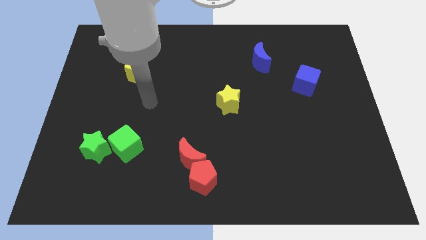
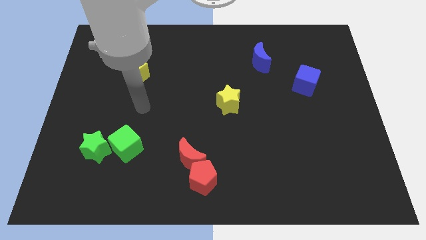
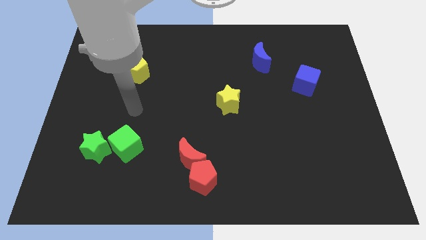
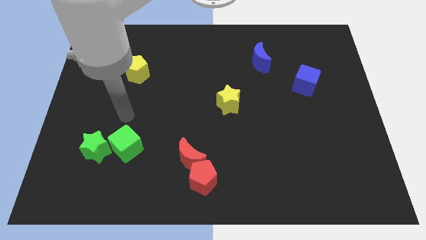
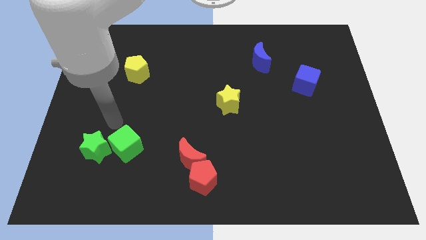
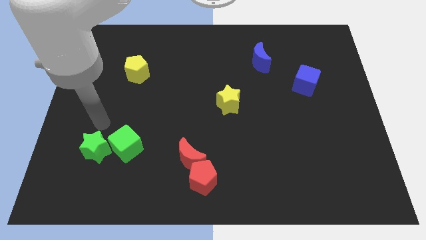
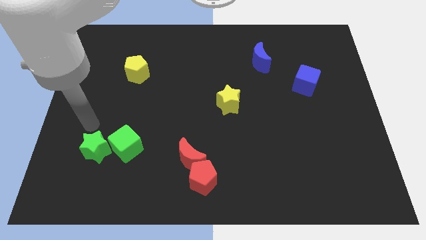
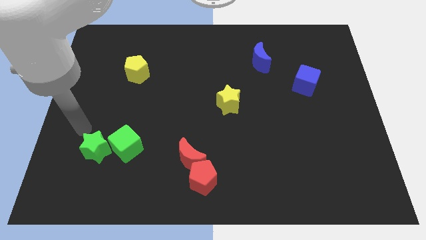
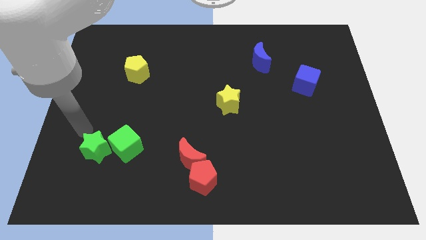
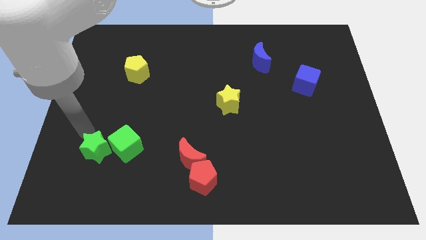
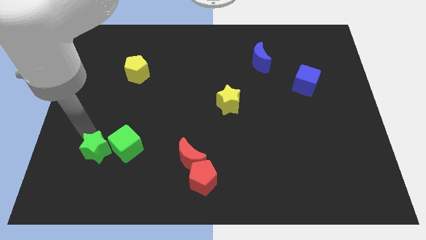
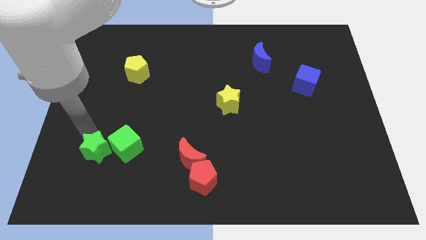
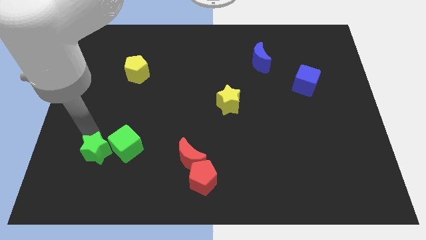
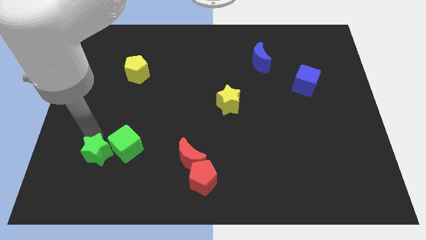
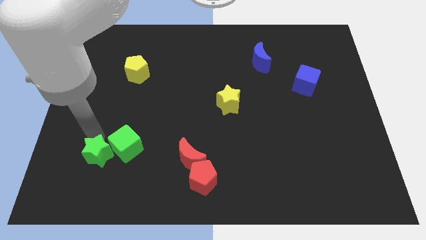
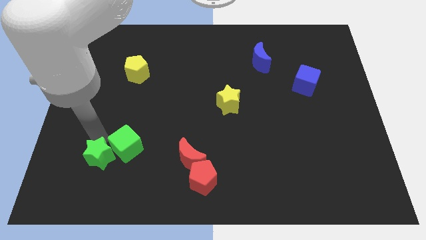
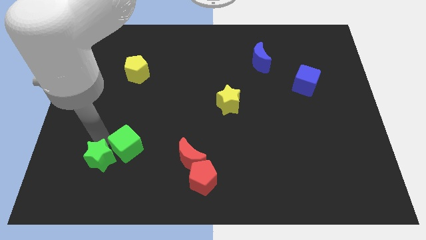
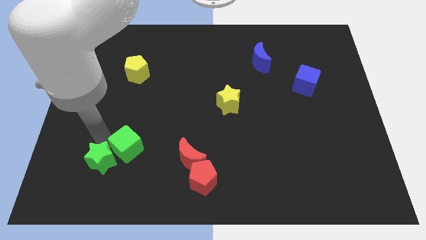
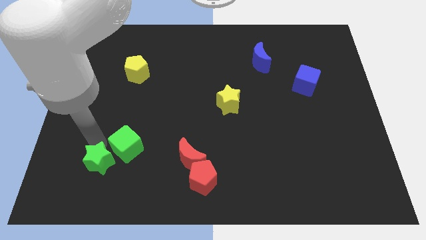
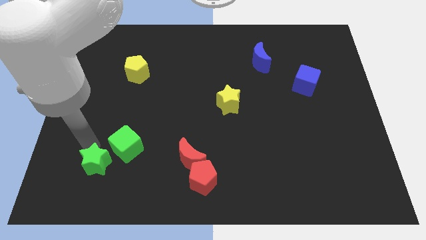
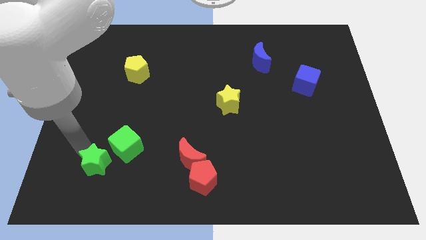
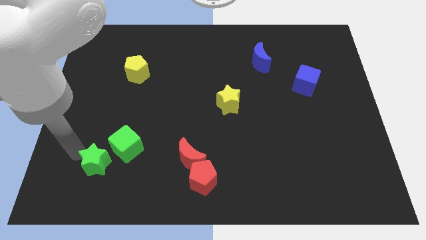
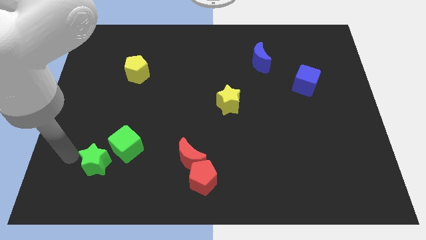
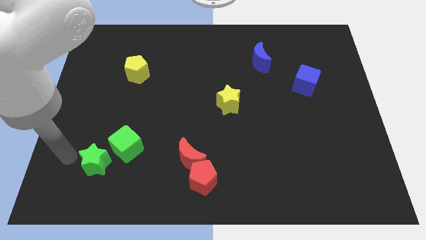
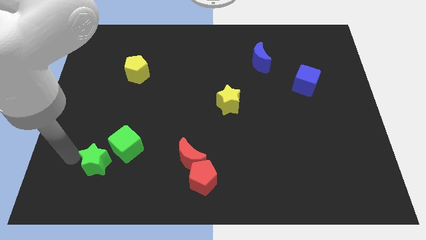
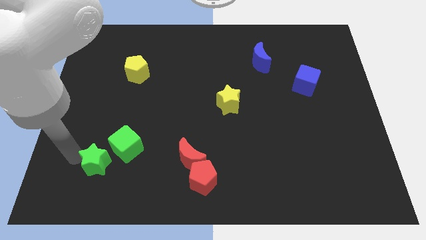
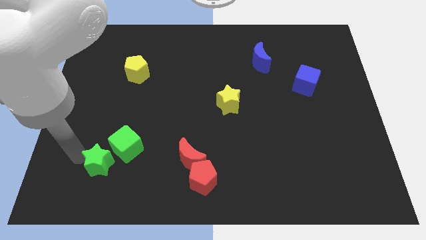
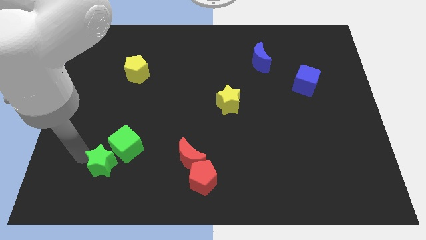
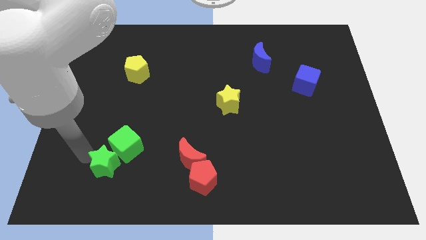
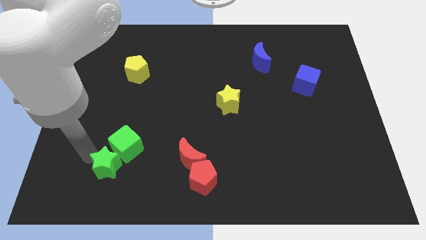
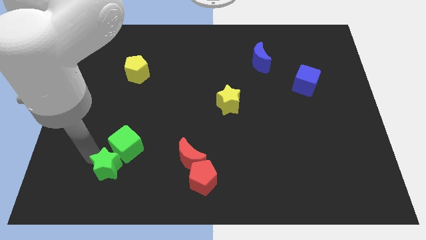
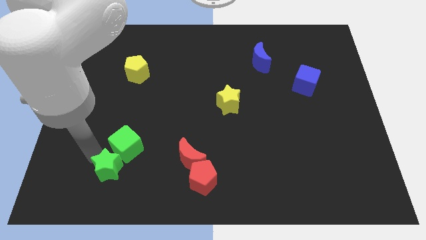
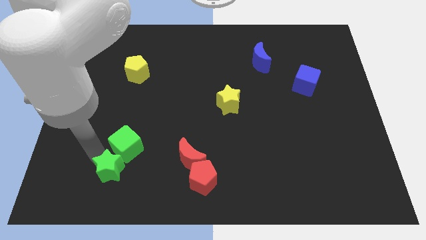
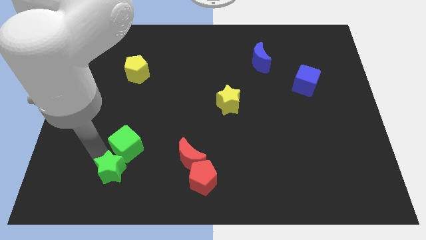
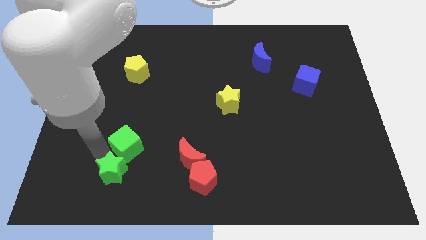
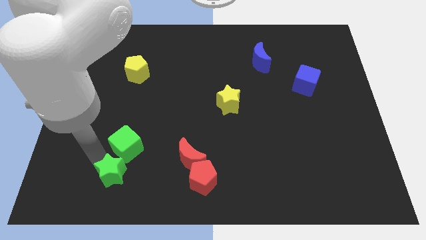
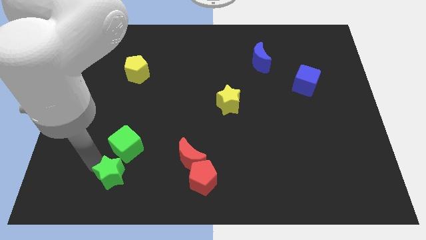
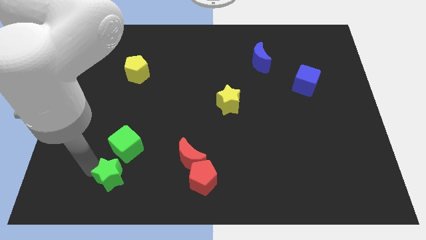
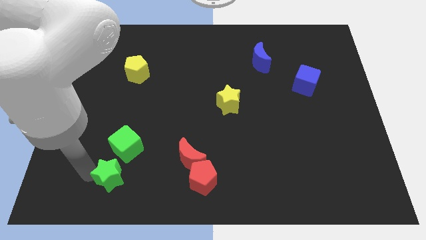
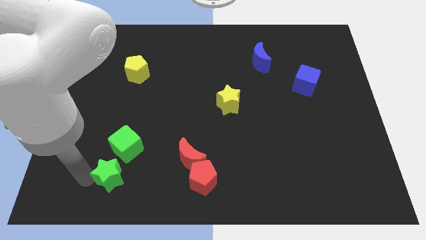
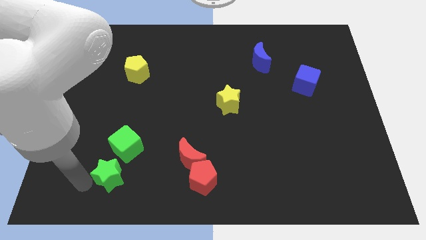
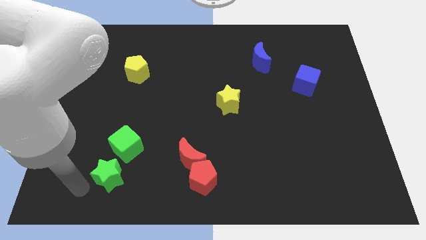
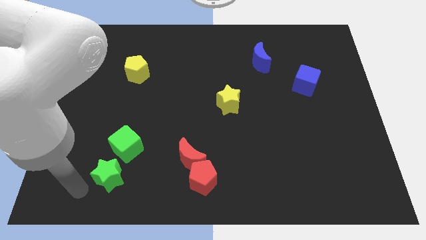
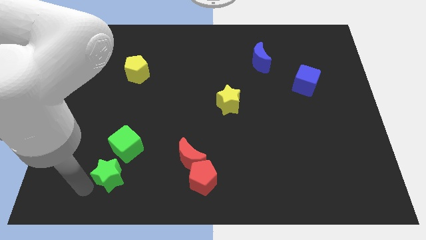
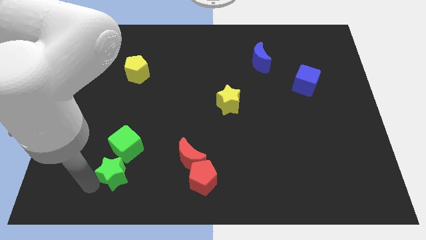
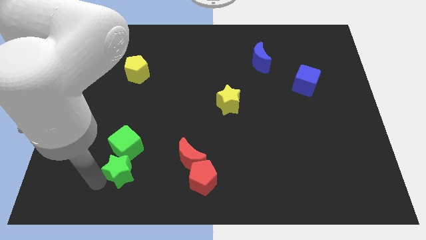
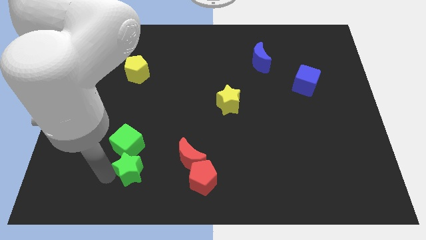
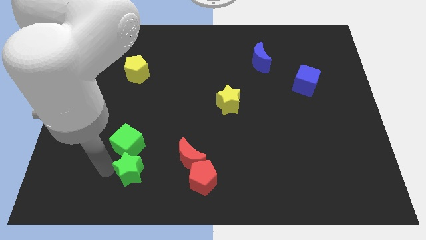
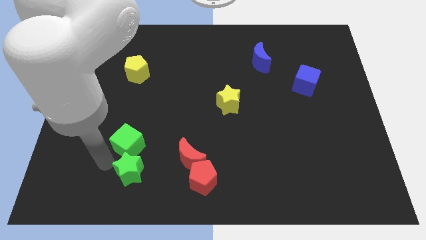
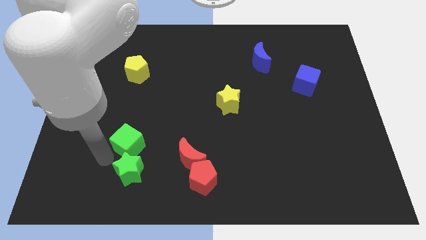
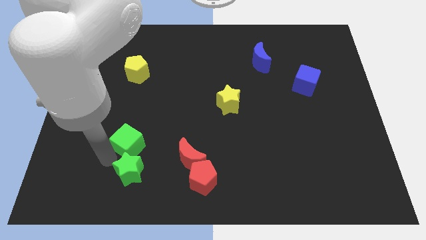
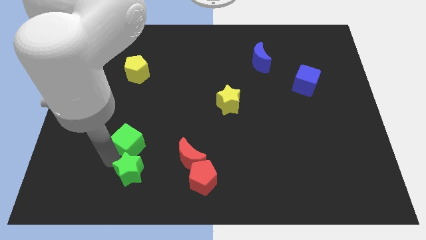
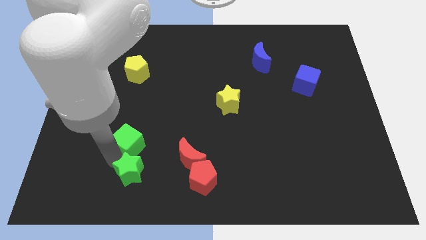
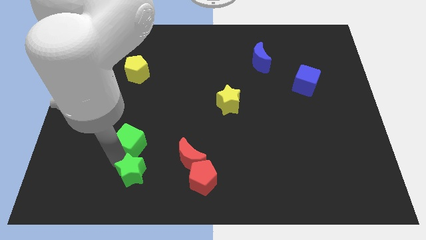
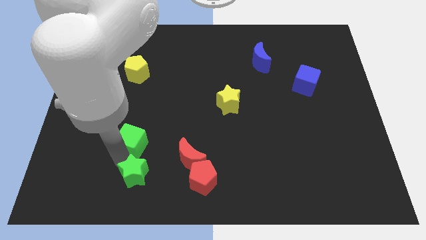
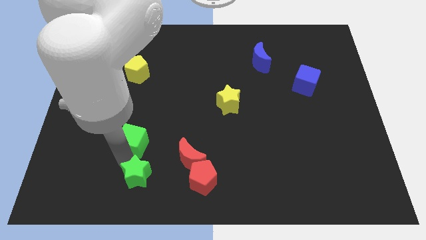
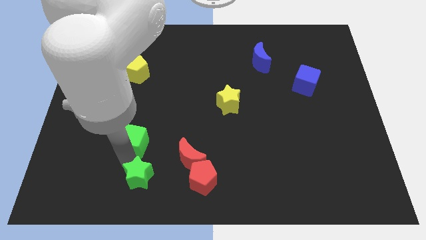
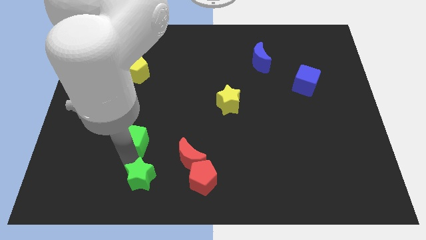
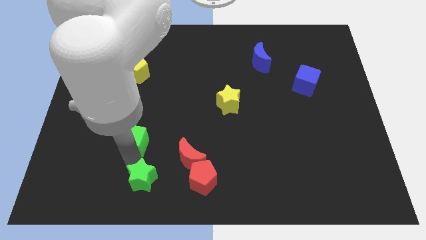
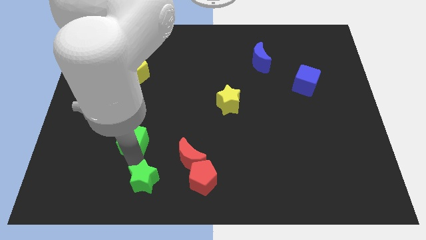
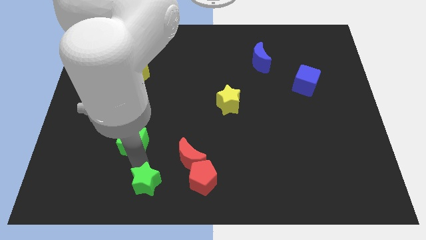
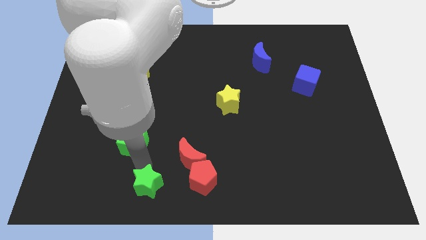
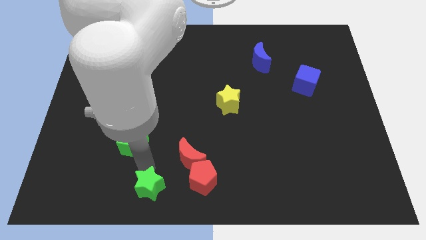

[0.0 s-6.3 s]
push the green star to the bottom side
